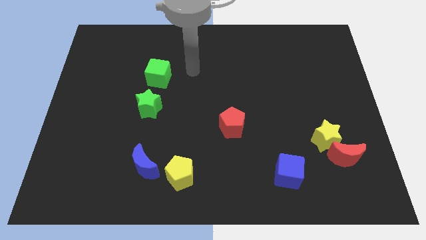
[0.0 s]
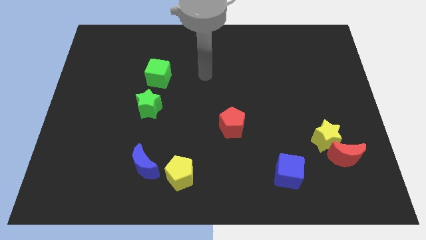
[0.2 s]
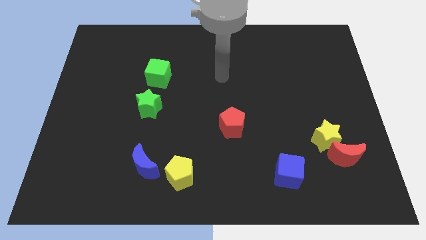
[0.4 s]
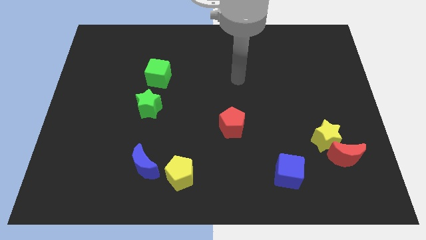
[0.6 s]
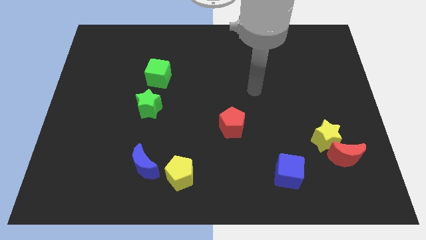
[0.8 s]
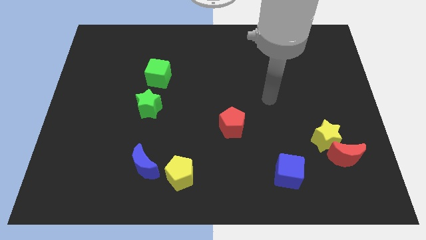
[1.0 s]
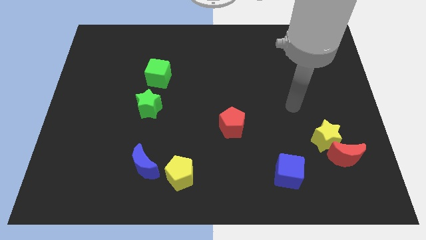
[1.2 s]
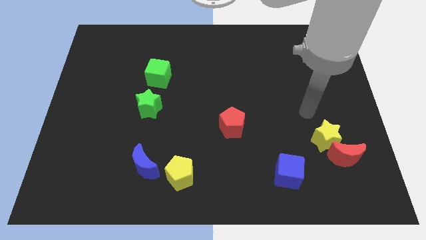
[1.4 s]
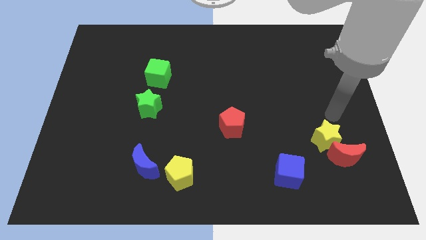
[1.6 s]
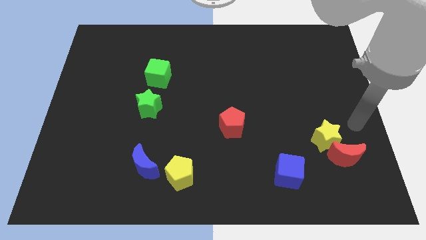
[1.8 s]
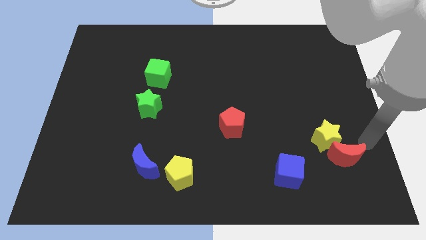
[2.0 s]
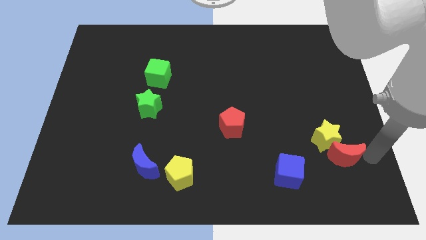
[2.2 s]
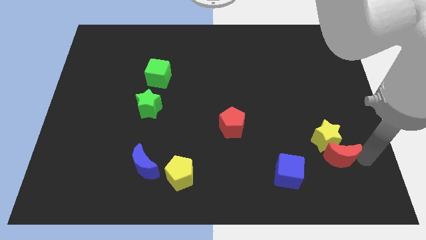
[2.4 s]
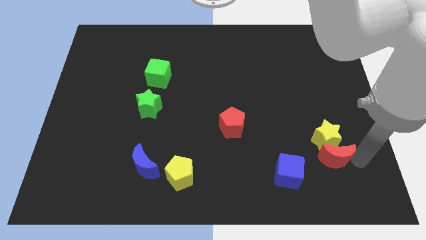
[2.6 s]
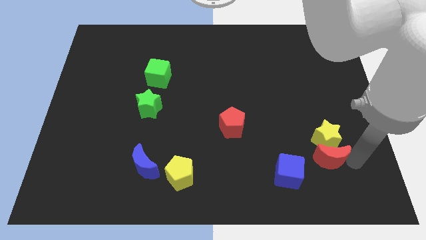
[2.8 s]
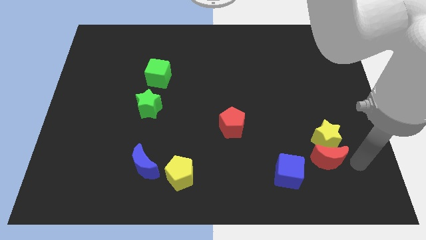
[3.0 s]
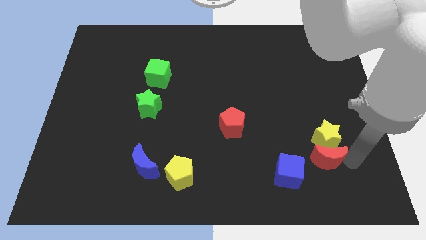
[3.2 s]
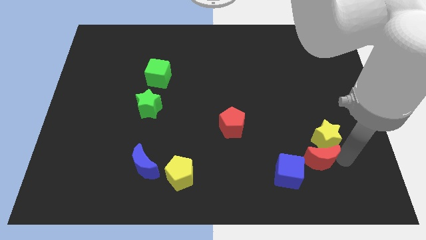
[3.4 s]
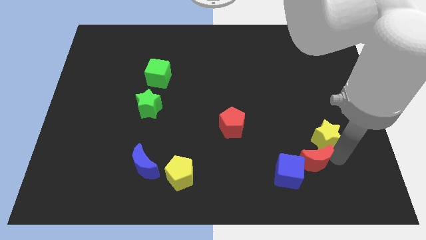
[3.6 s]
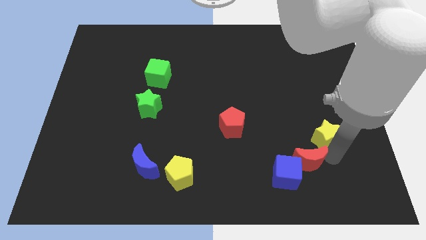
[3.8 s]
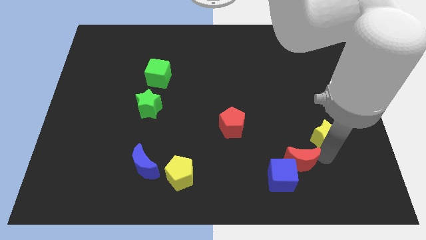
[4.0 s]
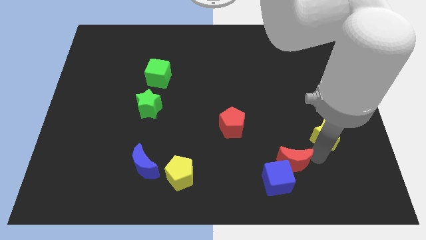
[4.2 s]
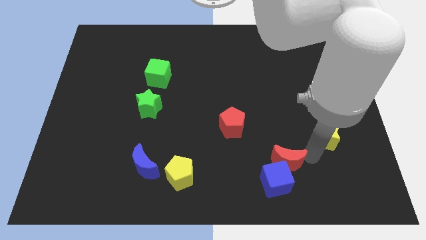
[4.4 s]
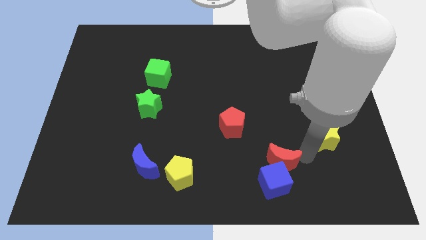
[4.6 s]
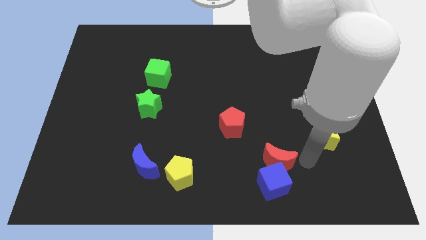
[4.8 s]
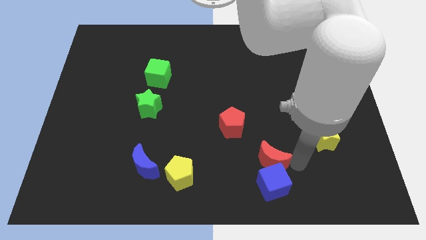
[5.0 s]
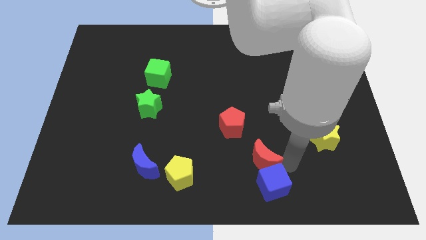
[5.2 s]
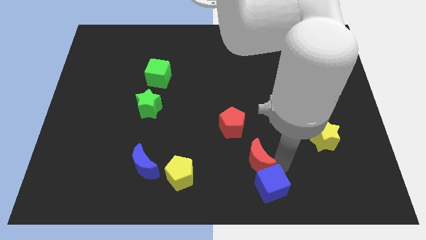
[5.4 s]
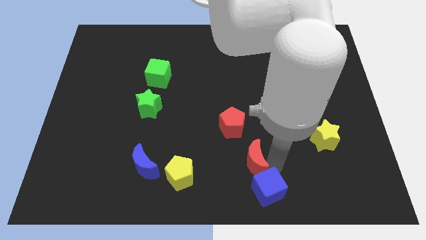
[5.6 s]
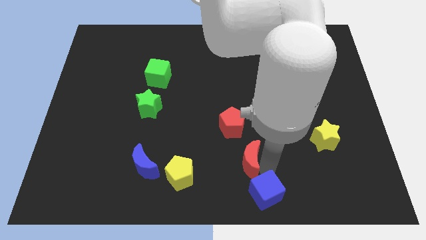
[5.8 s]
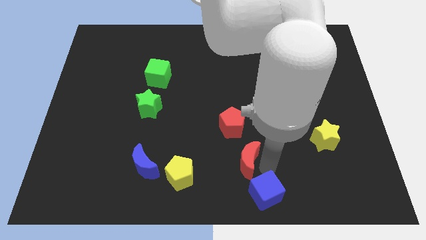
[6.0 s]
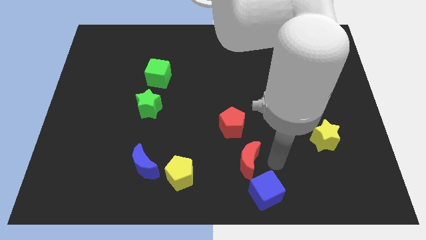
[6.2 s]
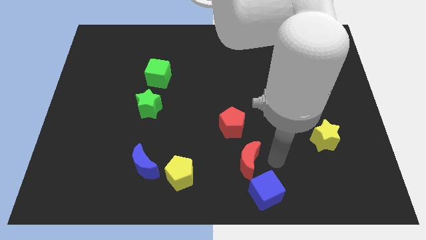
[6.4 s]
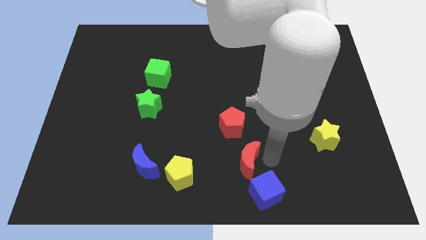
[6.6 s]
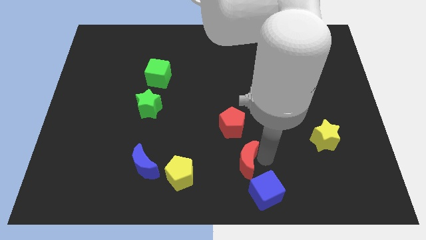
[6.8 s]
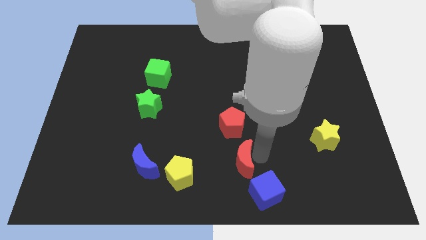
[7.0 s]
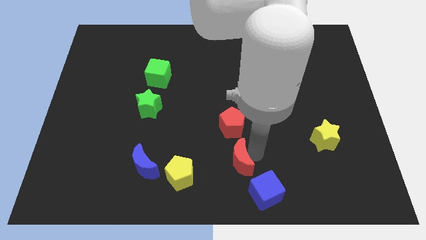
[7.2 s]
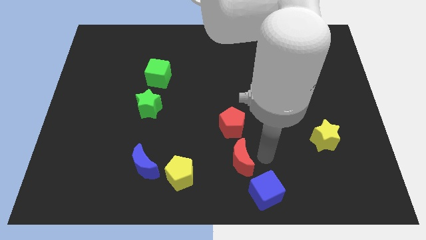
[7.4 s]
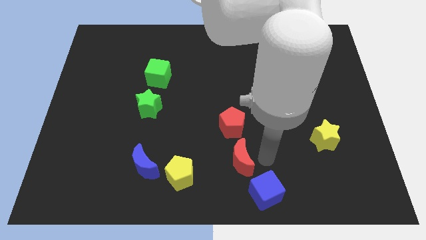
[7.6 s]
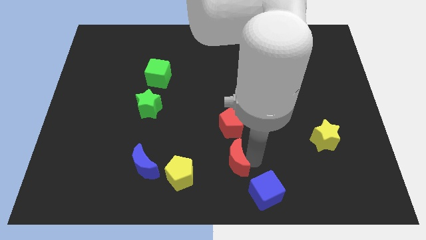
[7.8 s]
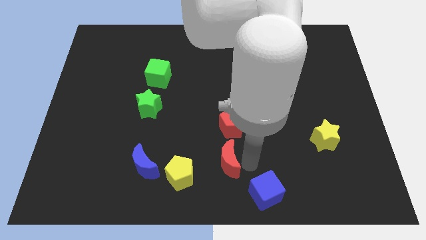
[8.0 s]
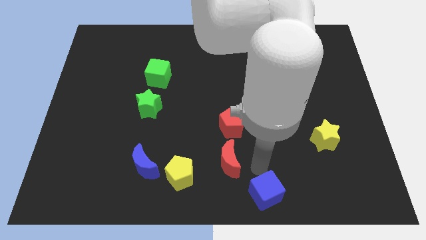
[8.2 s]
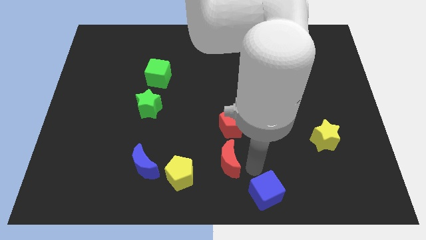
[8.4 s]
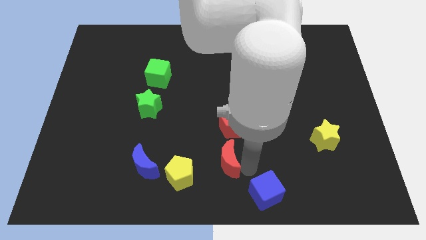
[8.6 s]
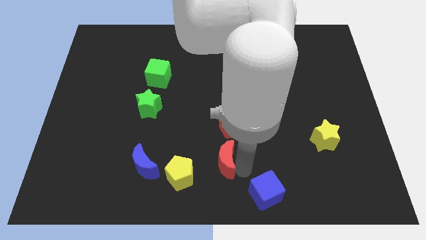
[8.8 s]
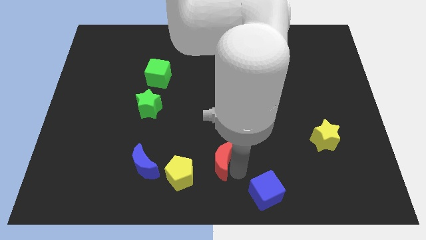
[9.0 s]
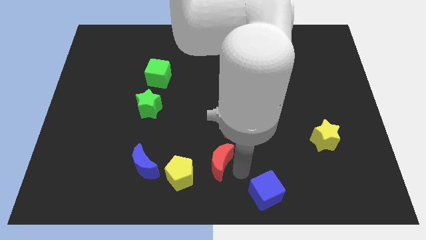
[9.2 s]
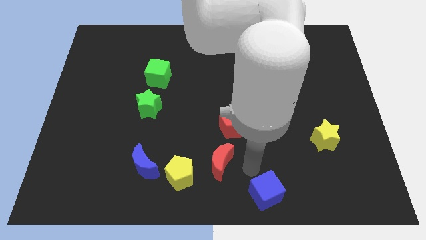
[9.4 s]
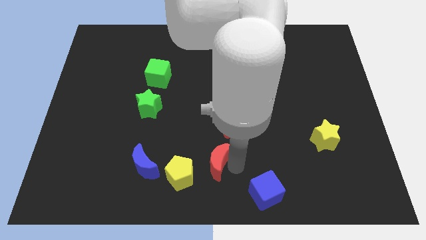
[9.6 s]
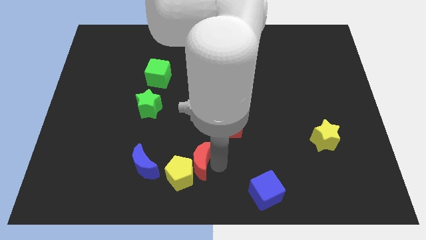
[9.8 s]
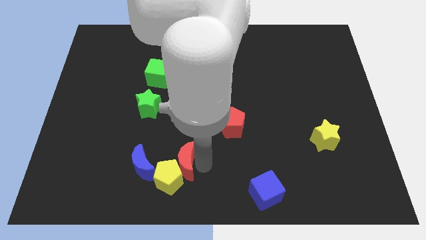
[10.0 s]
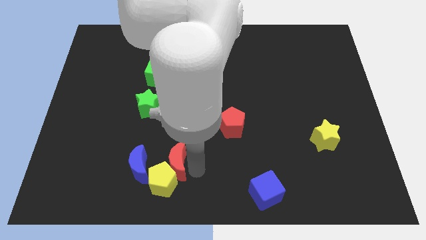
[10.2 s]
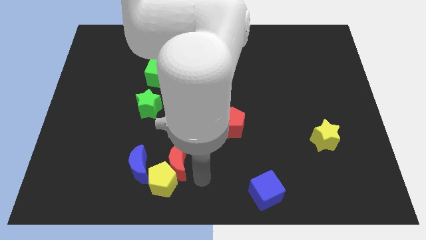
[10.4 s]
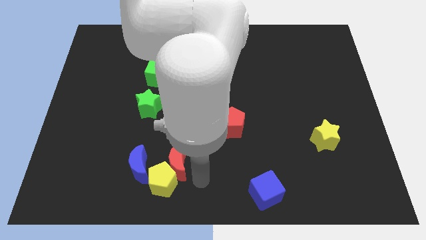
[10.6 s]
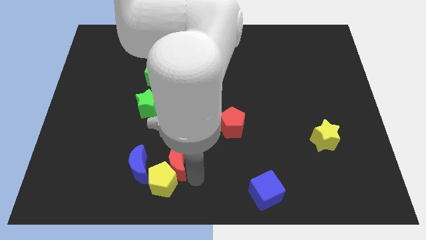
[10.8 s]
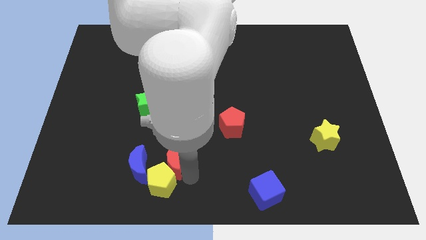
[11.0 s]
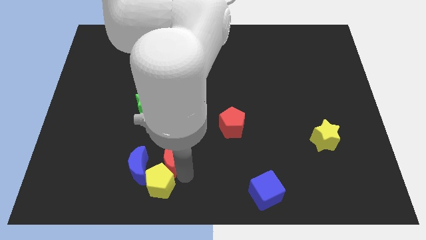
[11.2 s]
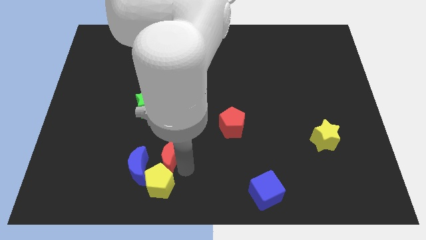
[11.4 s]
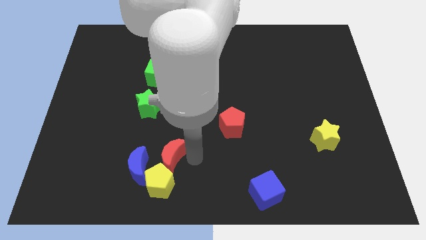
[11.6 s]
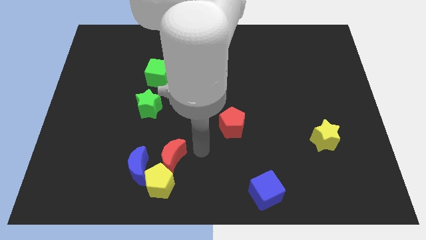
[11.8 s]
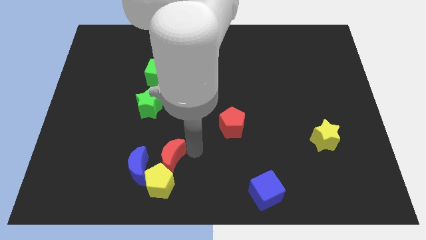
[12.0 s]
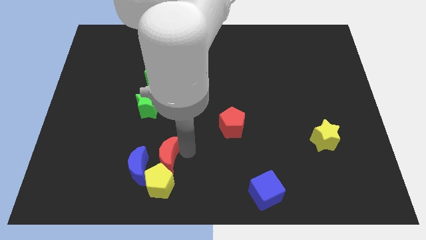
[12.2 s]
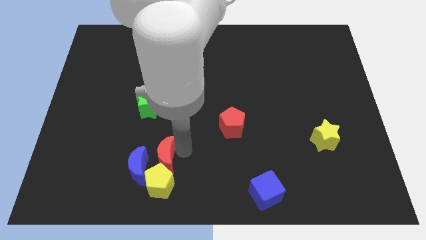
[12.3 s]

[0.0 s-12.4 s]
move the red moon towards the blue moon

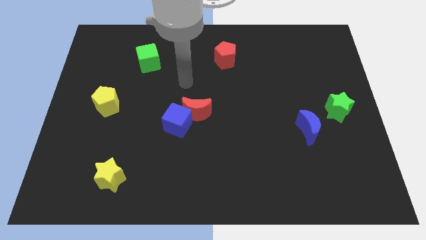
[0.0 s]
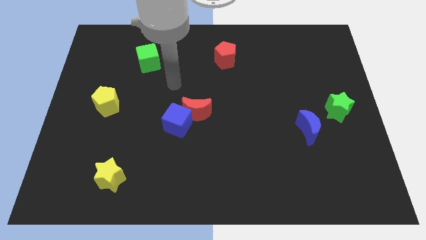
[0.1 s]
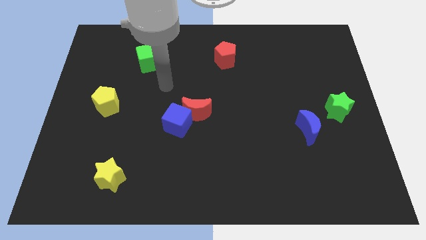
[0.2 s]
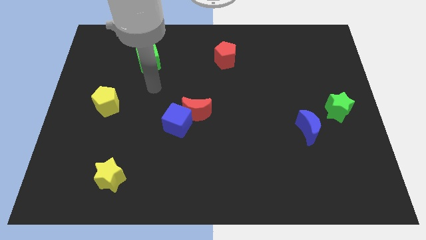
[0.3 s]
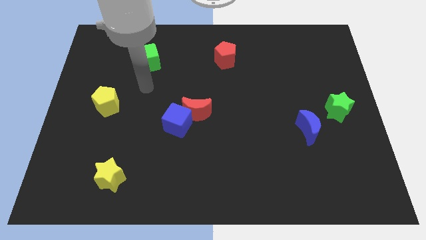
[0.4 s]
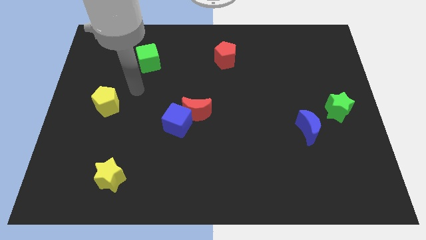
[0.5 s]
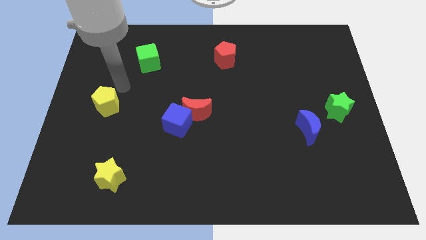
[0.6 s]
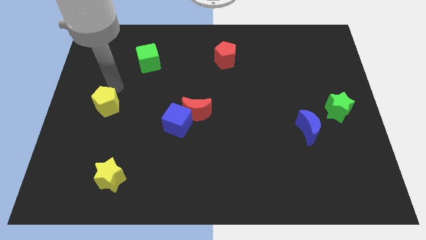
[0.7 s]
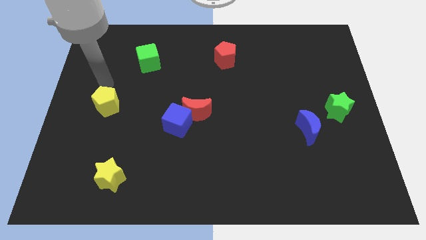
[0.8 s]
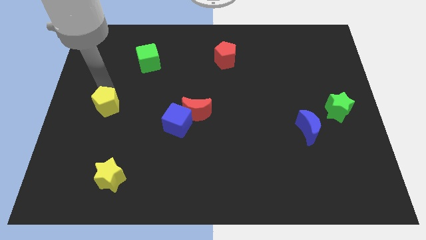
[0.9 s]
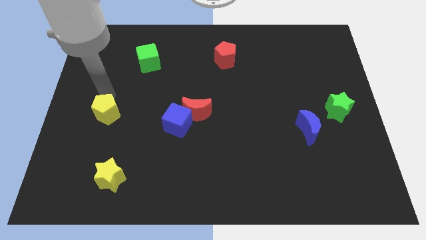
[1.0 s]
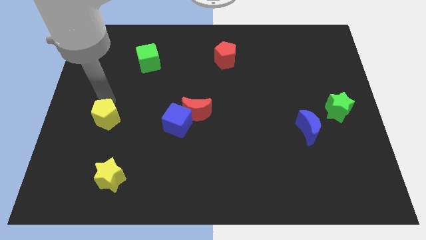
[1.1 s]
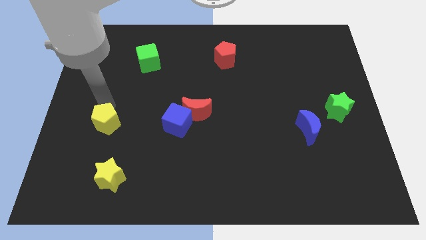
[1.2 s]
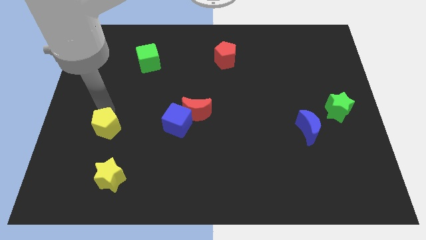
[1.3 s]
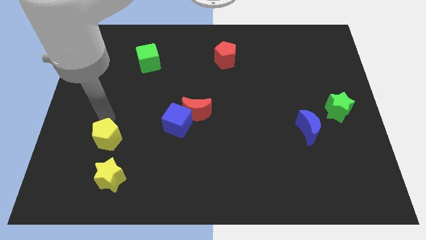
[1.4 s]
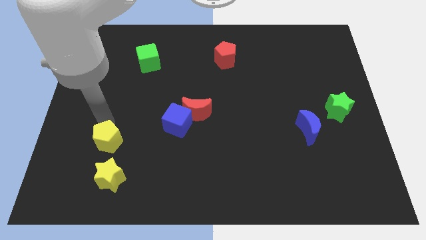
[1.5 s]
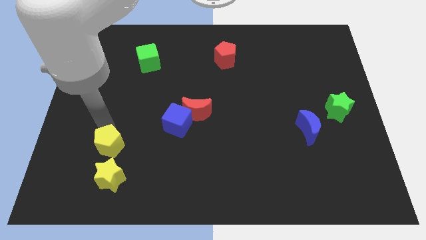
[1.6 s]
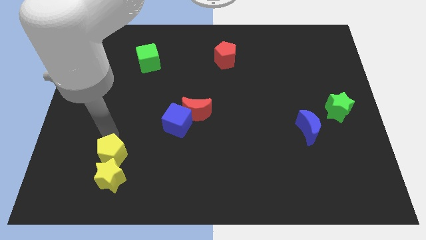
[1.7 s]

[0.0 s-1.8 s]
put the yellow pentagon towards the yellow star
